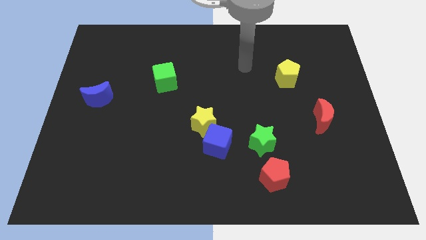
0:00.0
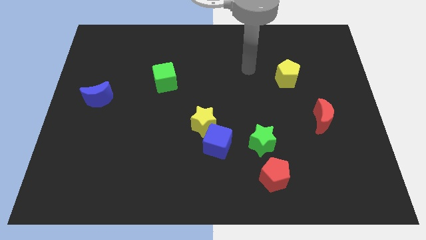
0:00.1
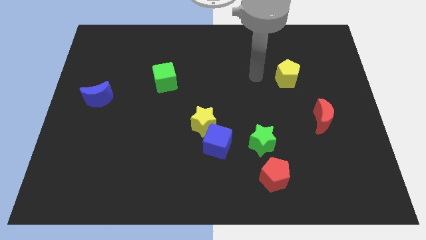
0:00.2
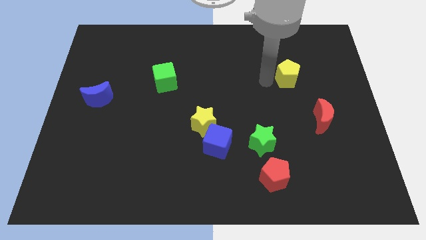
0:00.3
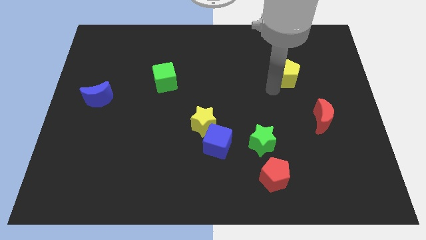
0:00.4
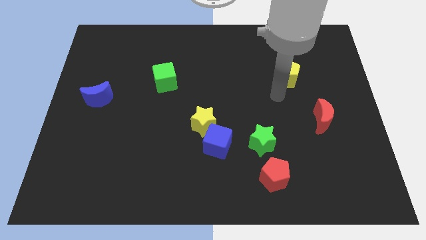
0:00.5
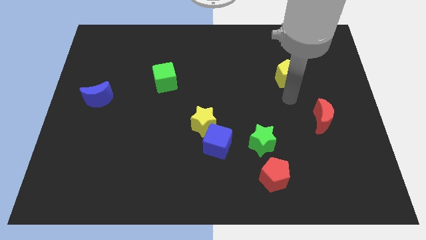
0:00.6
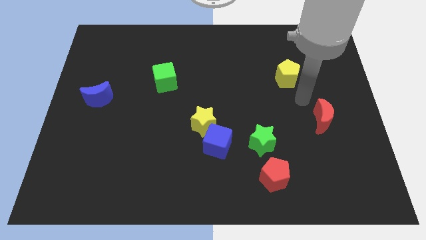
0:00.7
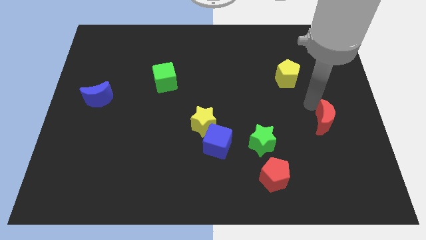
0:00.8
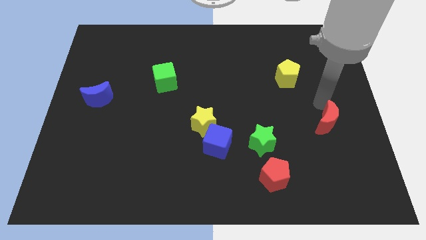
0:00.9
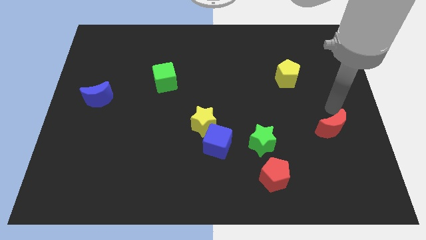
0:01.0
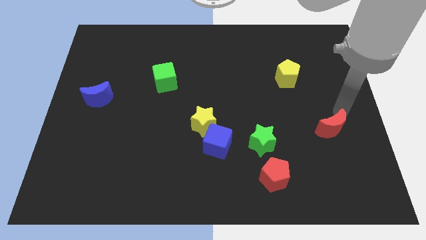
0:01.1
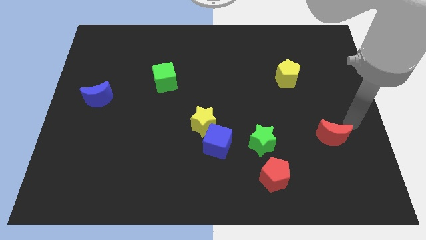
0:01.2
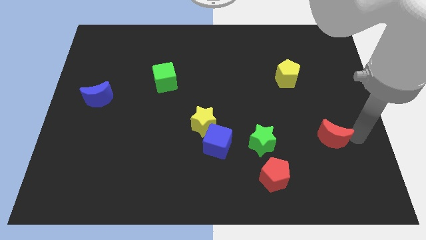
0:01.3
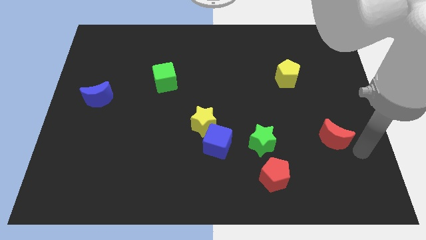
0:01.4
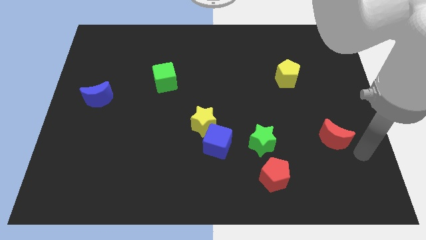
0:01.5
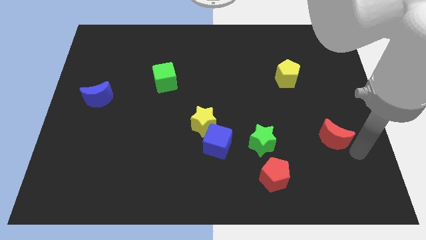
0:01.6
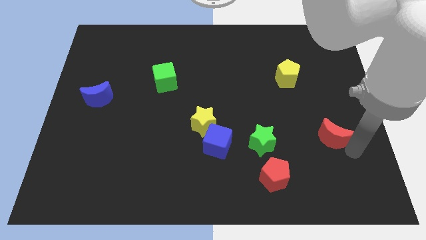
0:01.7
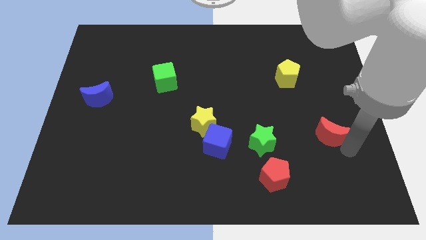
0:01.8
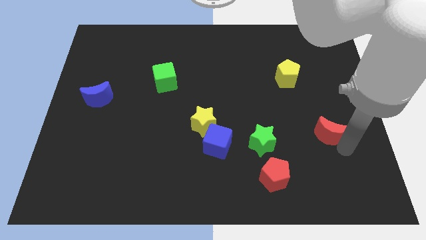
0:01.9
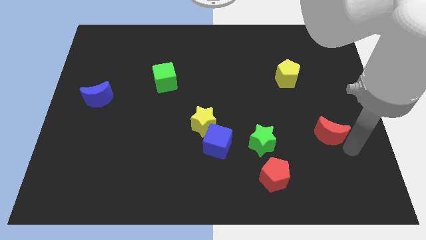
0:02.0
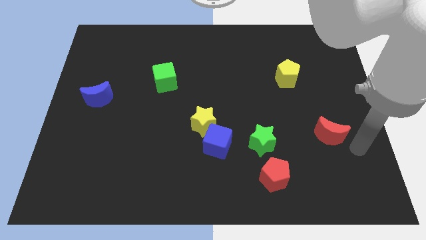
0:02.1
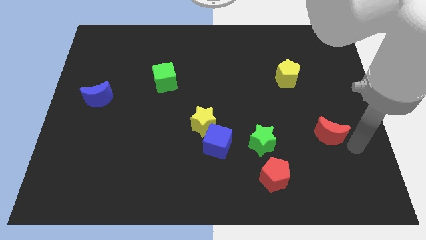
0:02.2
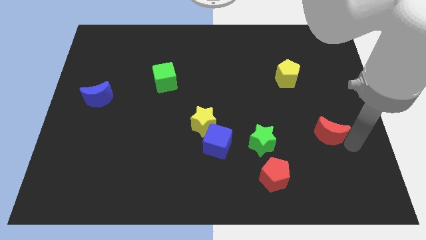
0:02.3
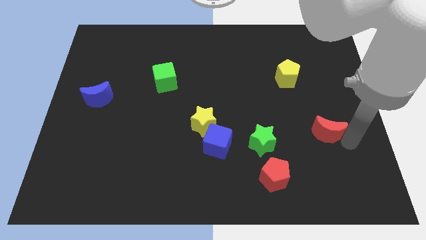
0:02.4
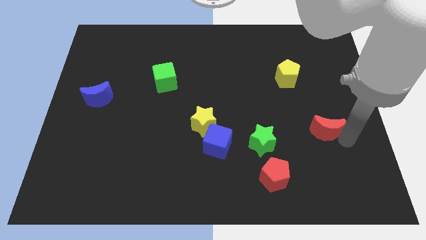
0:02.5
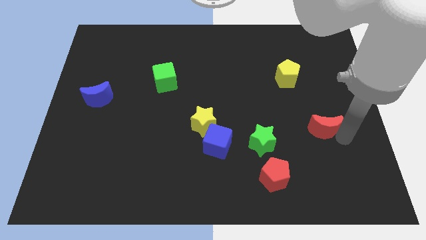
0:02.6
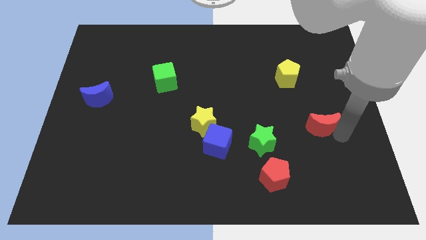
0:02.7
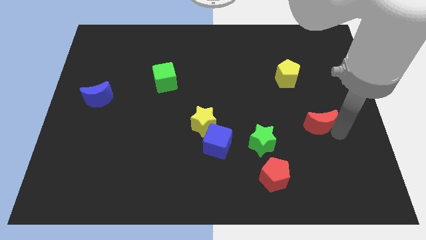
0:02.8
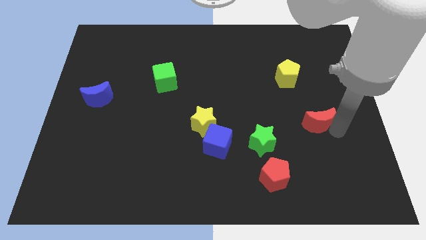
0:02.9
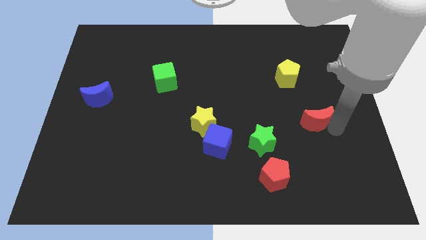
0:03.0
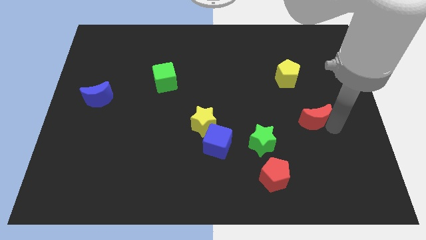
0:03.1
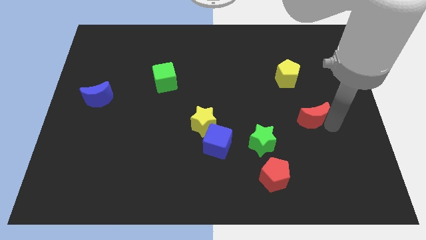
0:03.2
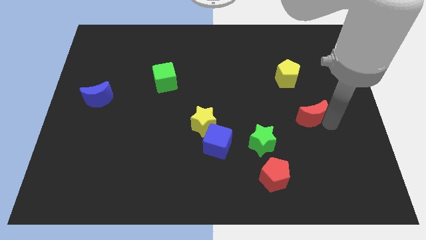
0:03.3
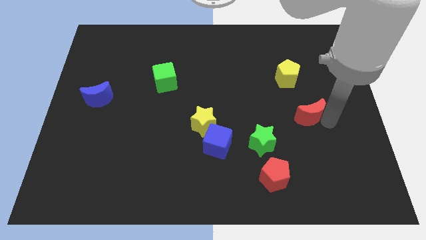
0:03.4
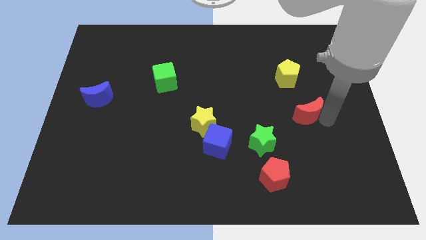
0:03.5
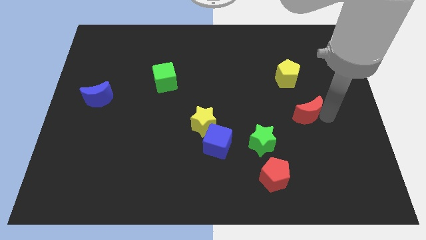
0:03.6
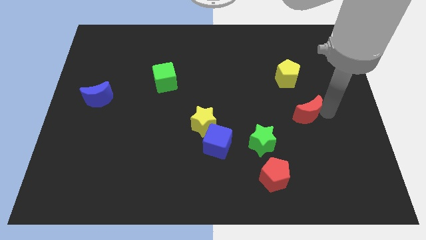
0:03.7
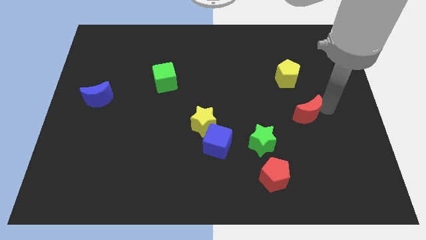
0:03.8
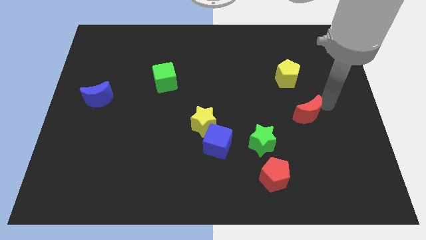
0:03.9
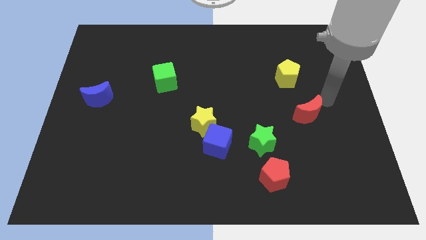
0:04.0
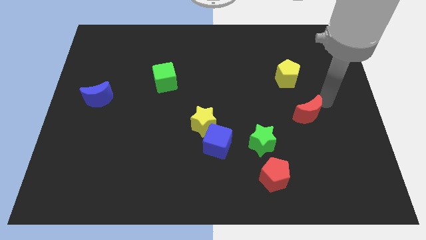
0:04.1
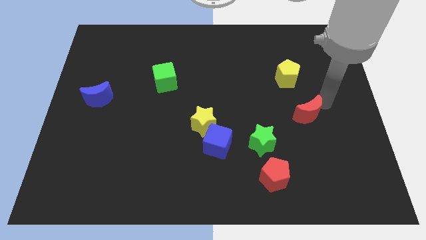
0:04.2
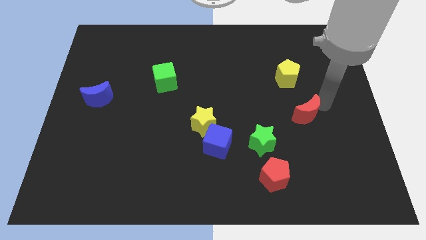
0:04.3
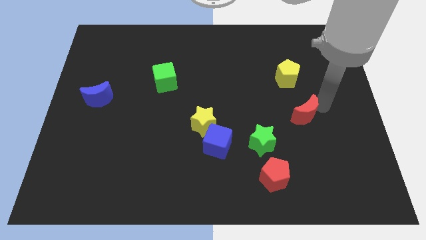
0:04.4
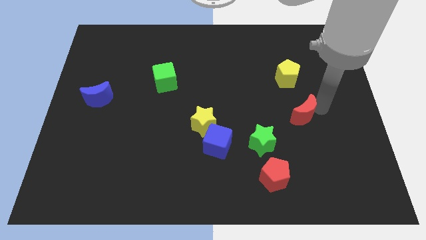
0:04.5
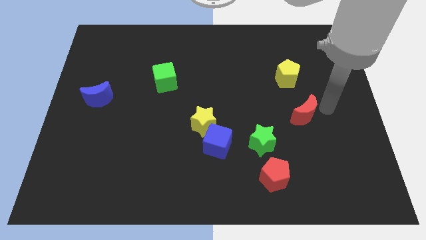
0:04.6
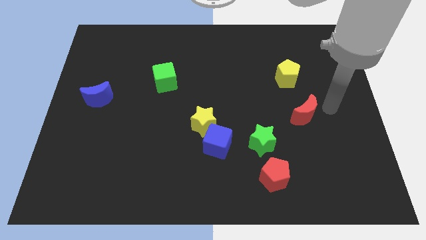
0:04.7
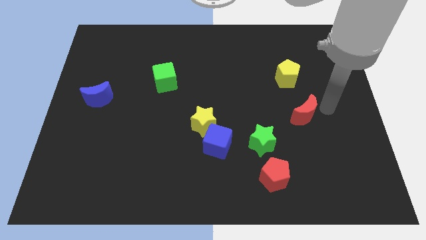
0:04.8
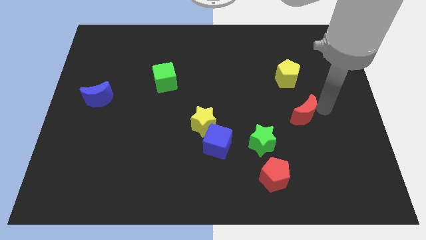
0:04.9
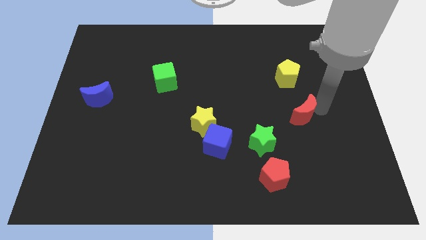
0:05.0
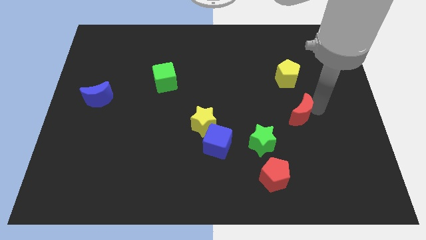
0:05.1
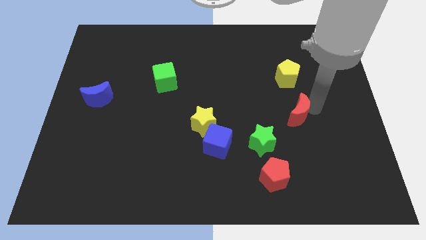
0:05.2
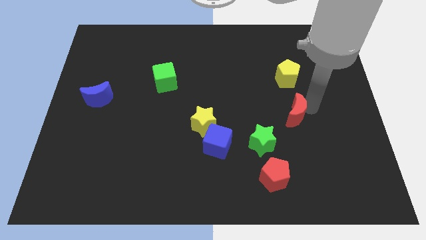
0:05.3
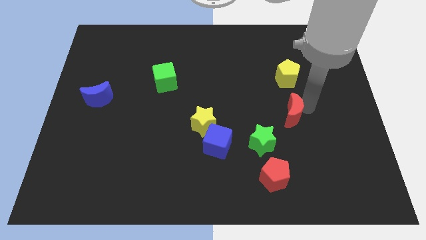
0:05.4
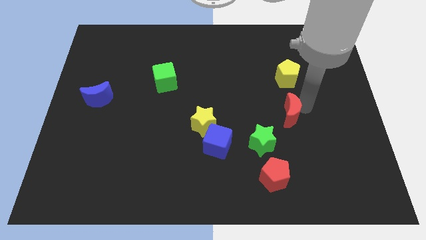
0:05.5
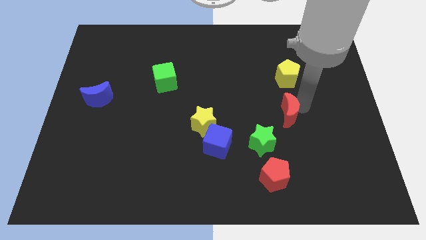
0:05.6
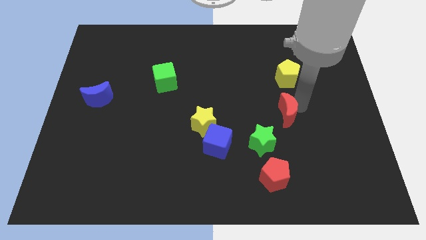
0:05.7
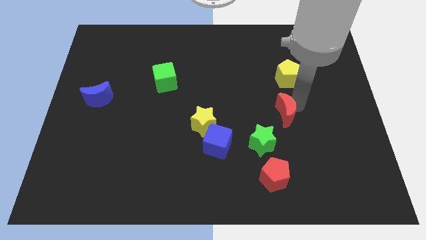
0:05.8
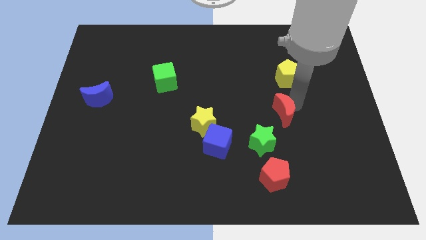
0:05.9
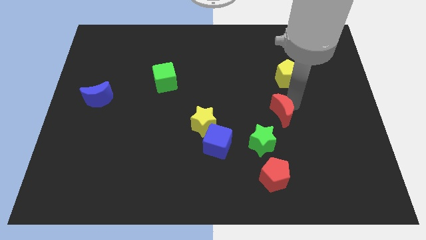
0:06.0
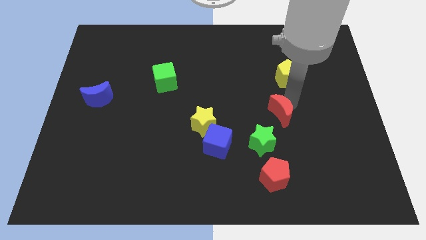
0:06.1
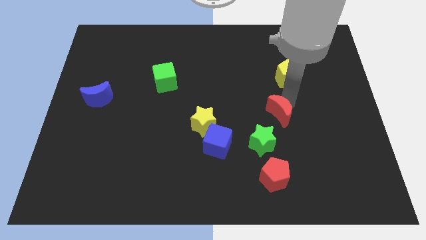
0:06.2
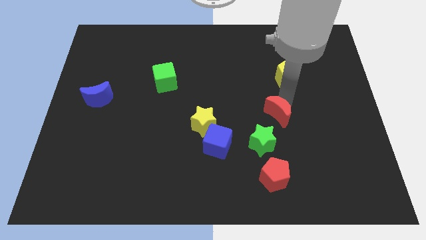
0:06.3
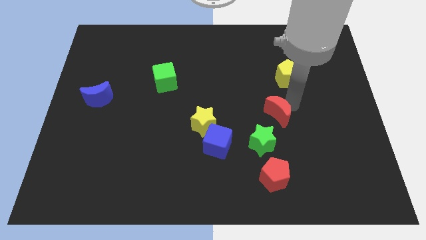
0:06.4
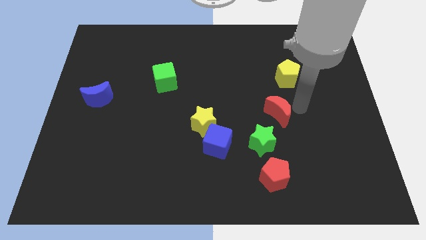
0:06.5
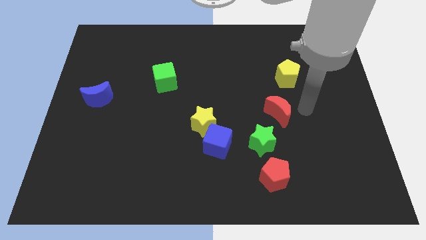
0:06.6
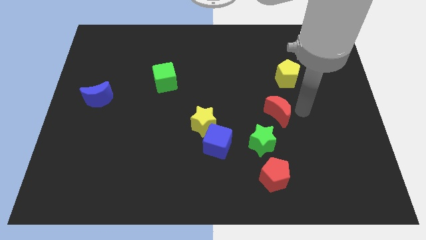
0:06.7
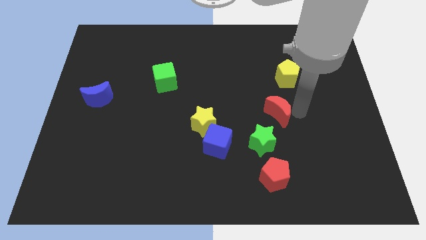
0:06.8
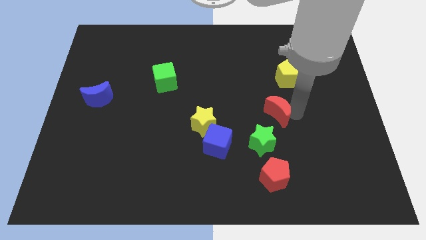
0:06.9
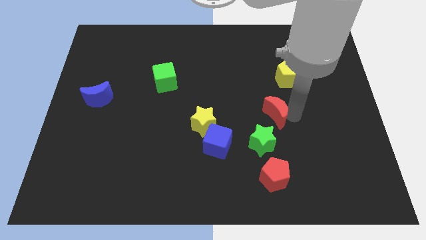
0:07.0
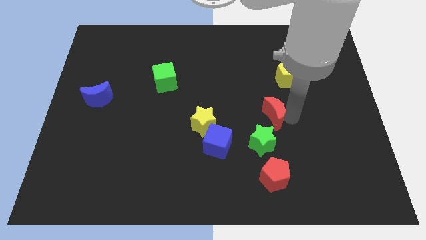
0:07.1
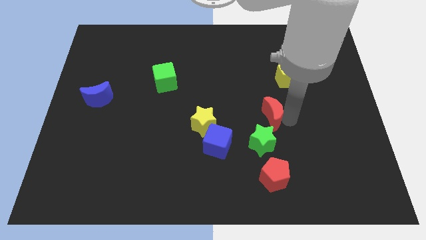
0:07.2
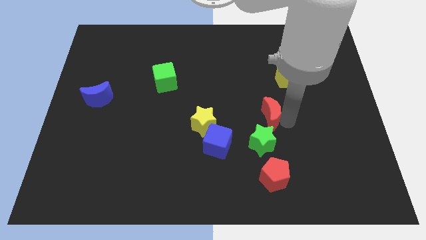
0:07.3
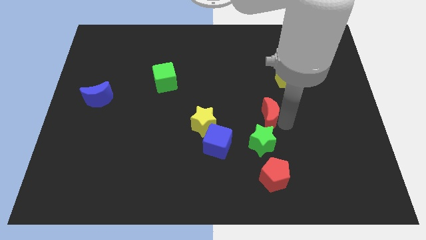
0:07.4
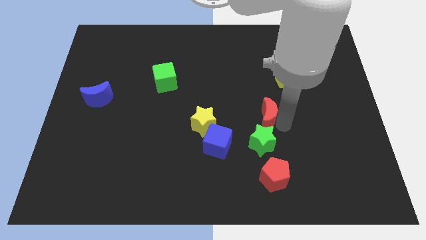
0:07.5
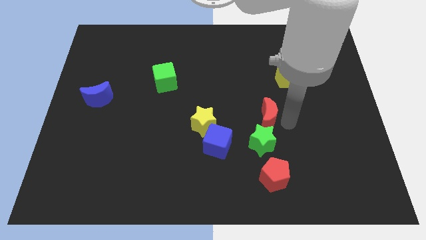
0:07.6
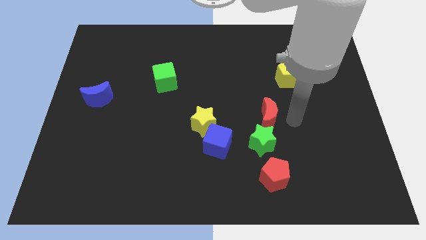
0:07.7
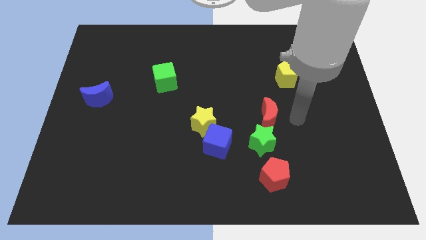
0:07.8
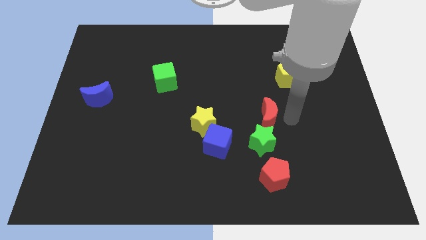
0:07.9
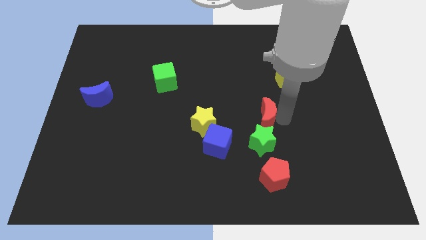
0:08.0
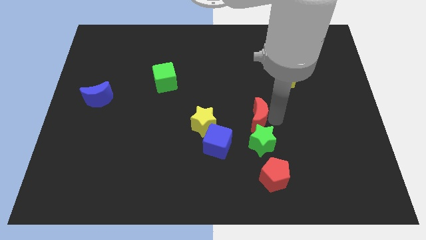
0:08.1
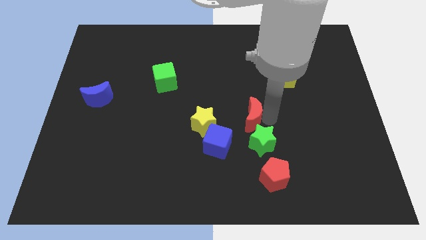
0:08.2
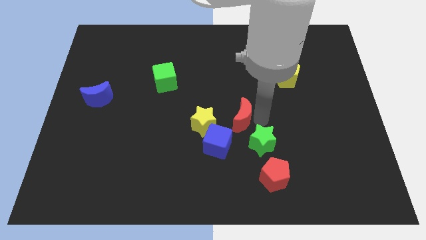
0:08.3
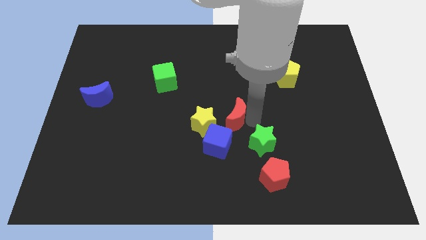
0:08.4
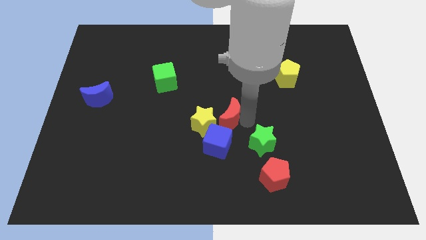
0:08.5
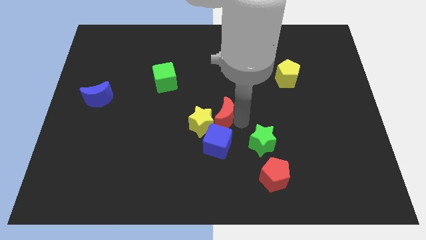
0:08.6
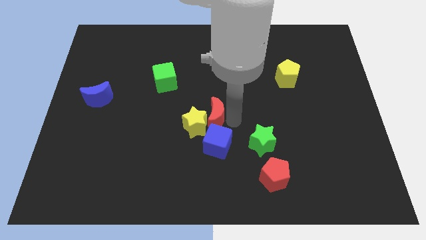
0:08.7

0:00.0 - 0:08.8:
put the red moon to the top left of the blue cube
